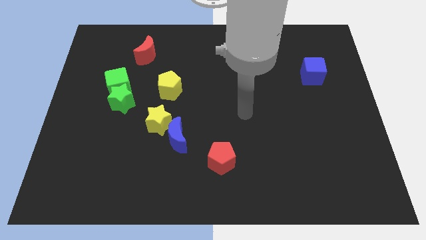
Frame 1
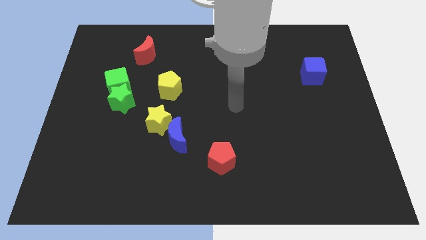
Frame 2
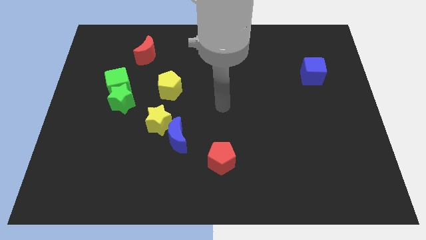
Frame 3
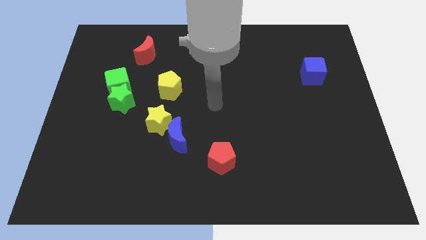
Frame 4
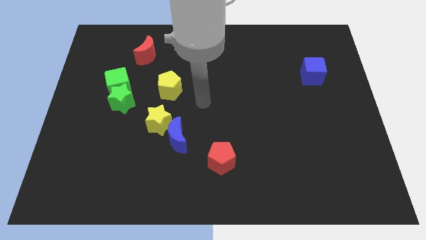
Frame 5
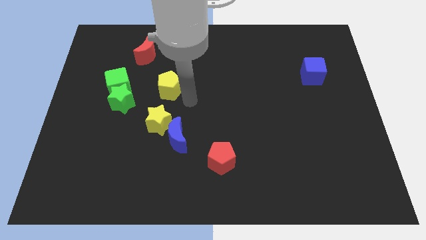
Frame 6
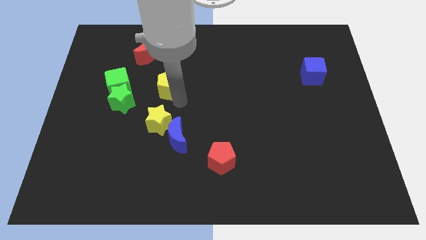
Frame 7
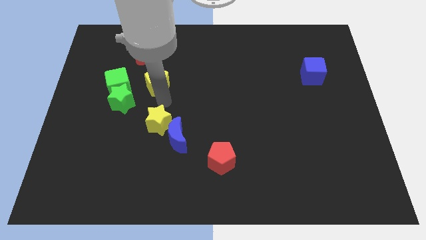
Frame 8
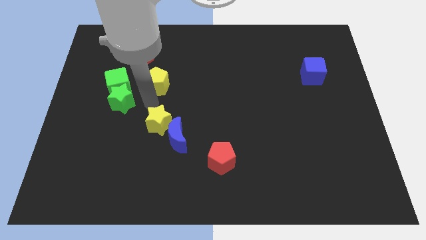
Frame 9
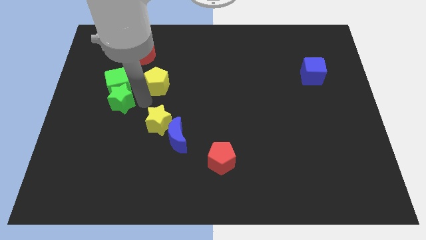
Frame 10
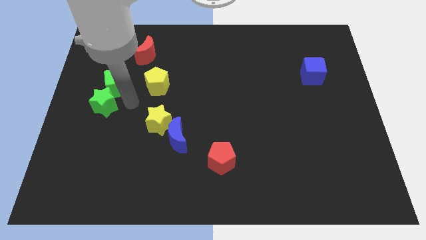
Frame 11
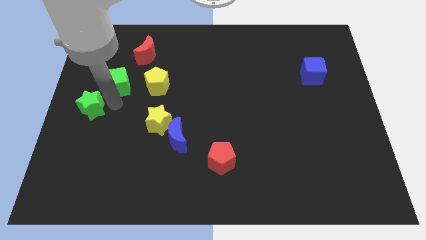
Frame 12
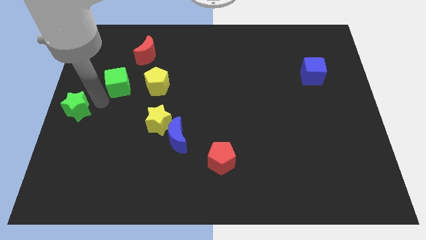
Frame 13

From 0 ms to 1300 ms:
pull the green cube apart from the green star

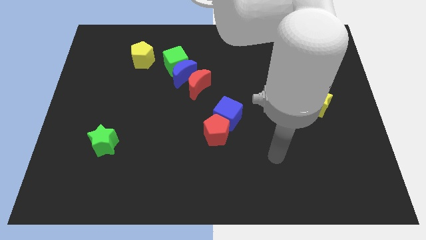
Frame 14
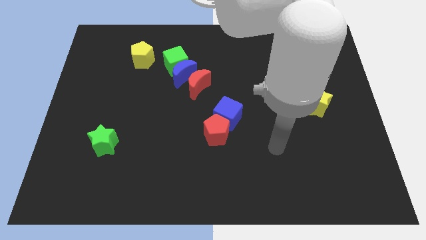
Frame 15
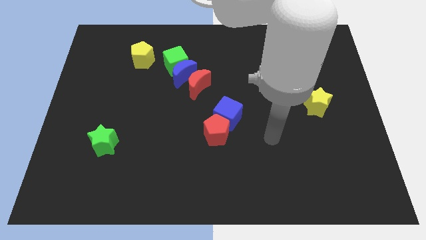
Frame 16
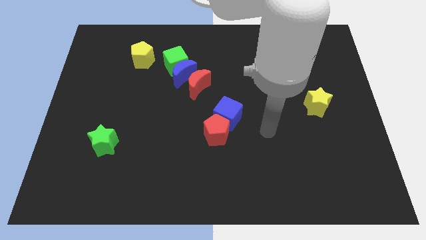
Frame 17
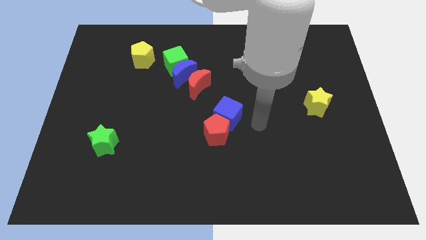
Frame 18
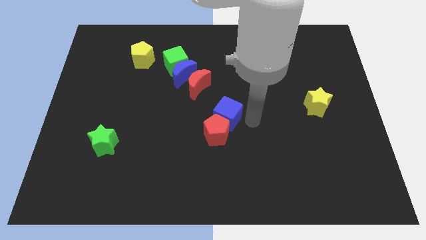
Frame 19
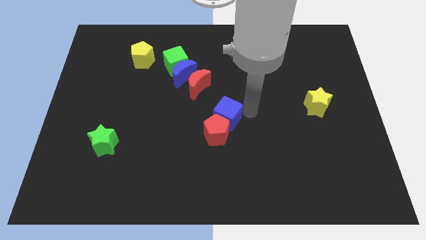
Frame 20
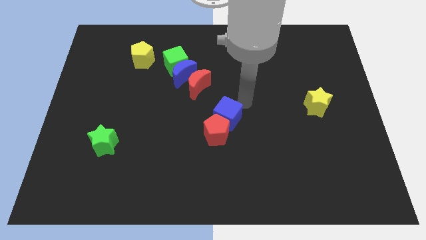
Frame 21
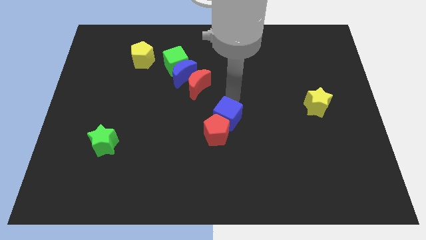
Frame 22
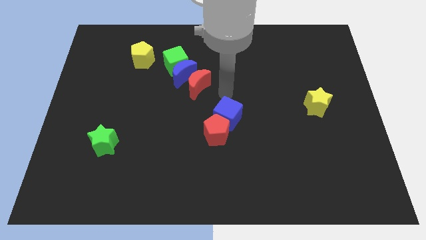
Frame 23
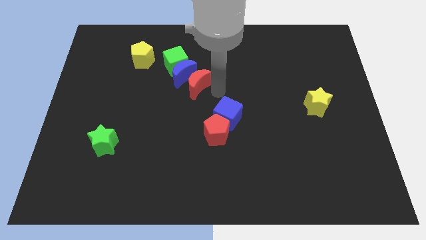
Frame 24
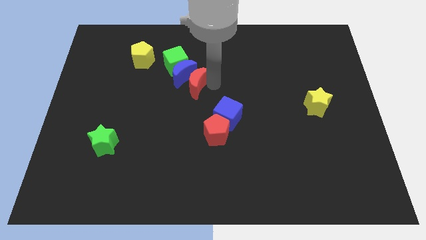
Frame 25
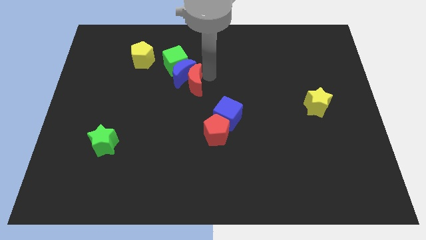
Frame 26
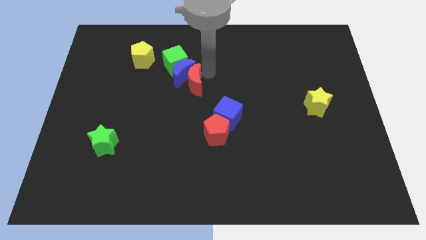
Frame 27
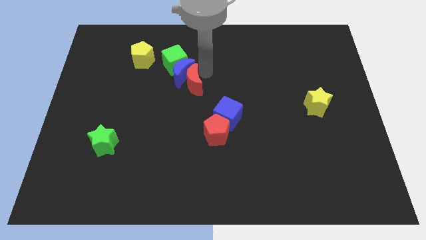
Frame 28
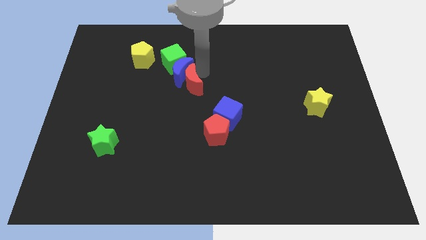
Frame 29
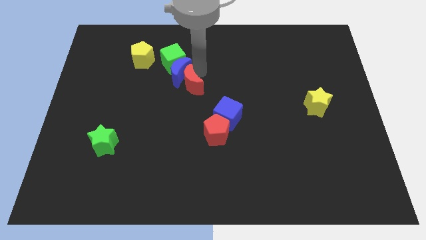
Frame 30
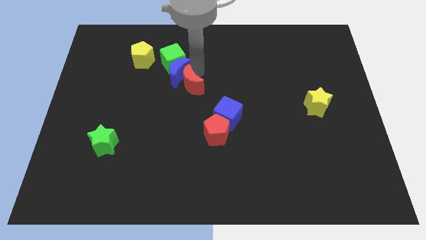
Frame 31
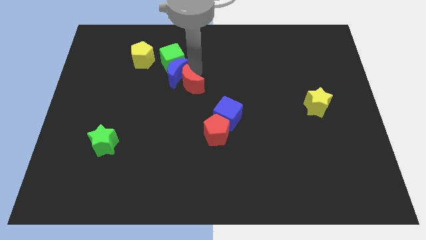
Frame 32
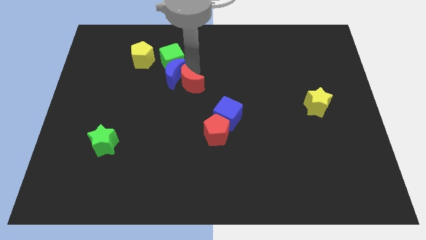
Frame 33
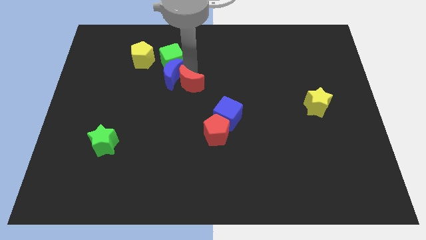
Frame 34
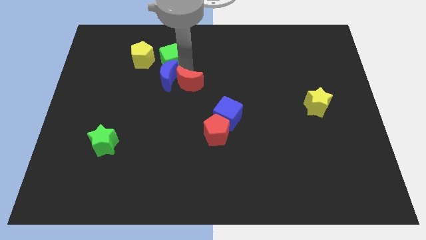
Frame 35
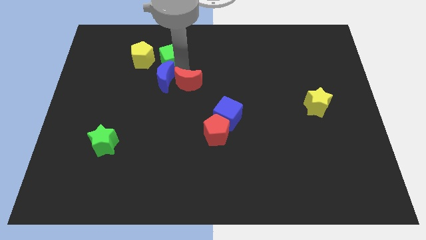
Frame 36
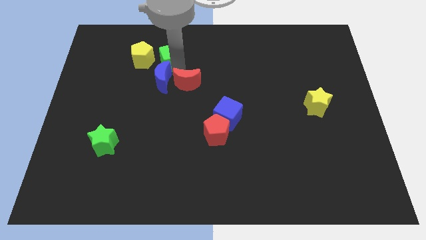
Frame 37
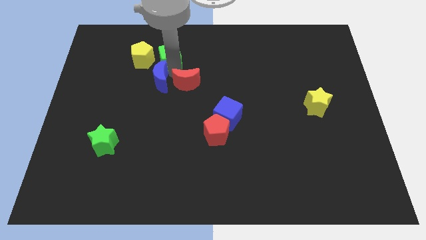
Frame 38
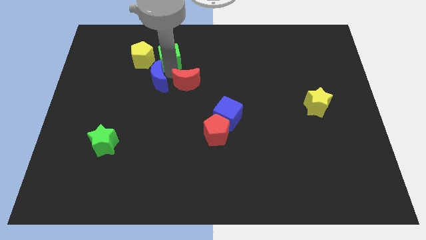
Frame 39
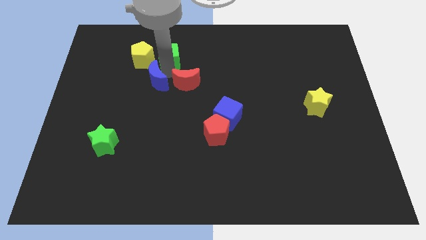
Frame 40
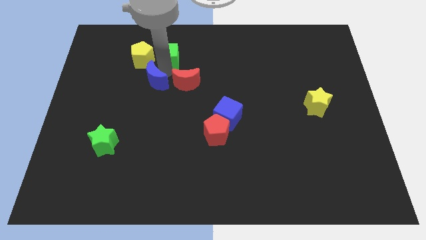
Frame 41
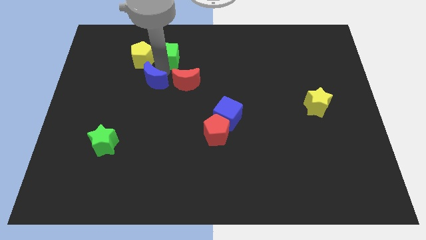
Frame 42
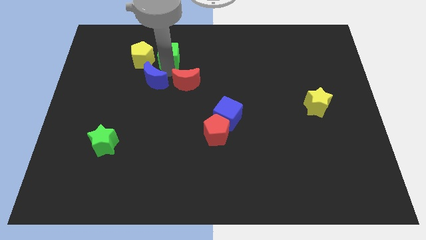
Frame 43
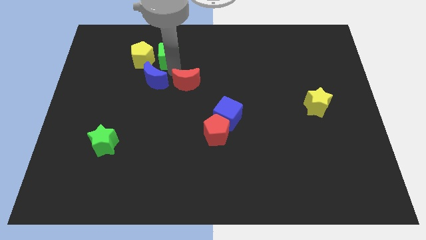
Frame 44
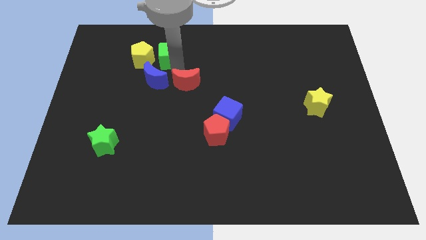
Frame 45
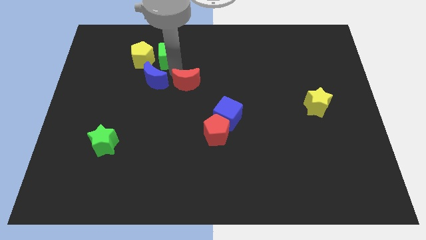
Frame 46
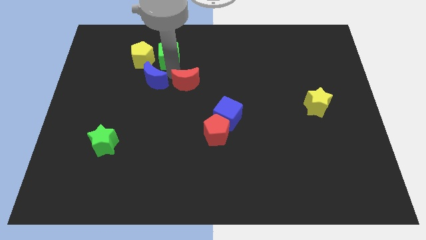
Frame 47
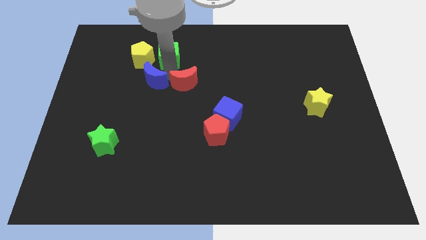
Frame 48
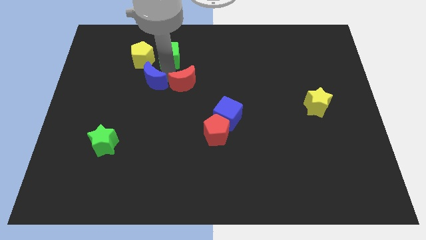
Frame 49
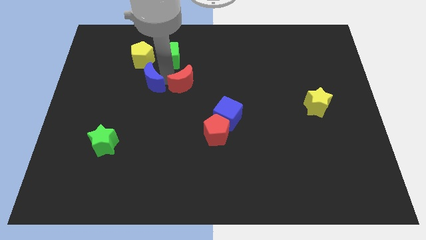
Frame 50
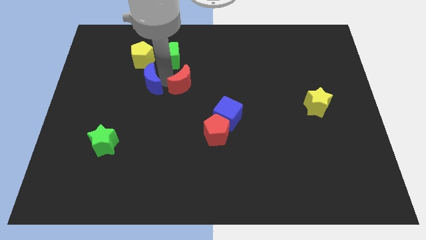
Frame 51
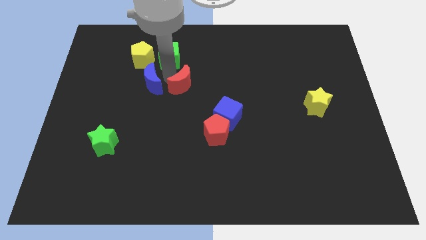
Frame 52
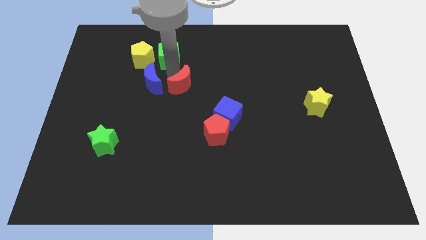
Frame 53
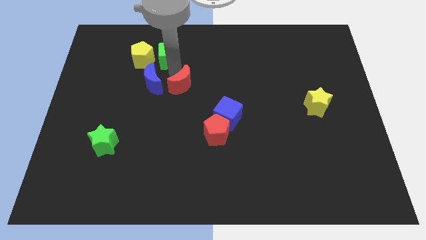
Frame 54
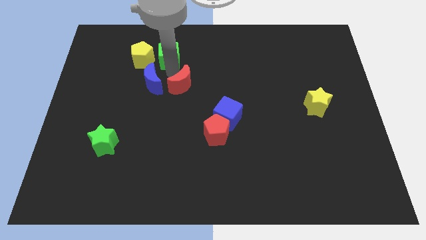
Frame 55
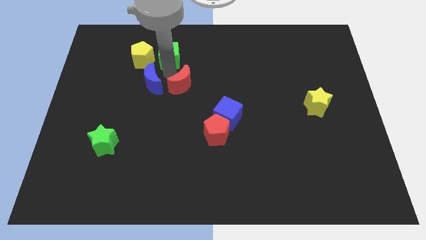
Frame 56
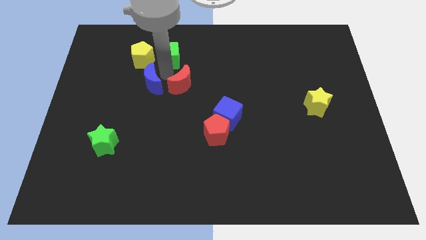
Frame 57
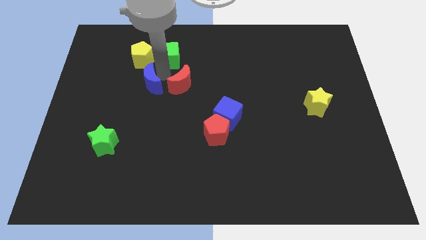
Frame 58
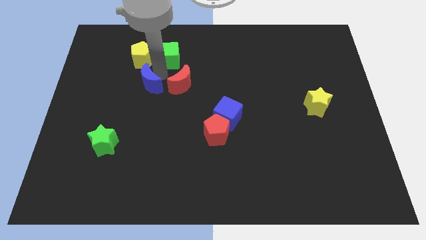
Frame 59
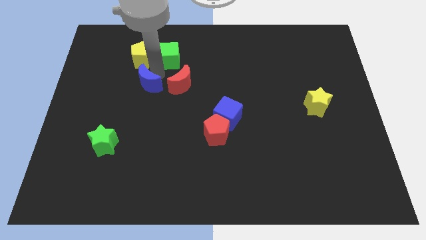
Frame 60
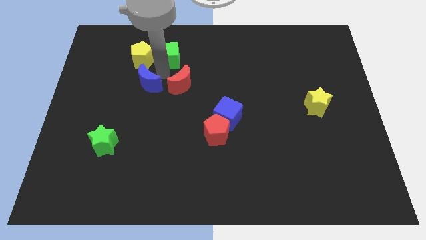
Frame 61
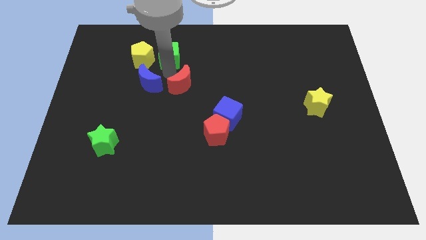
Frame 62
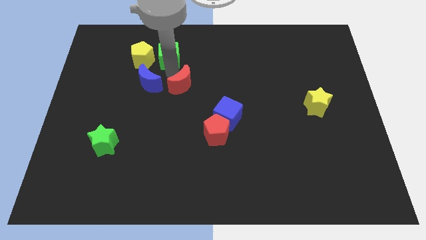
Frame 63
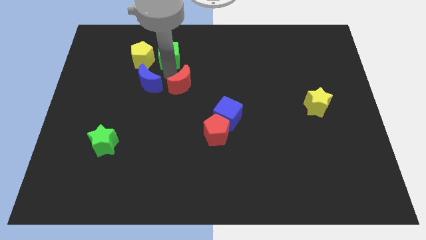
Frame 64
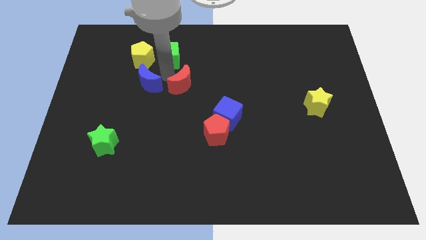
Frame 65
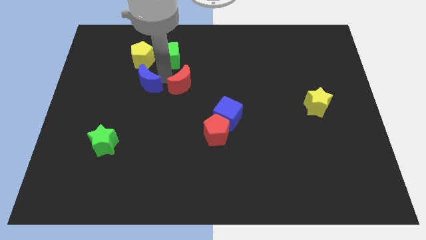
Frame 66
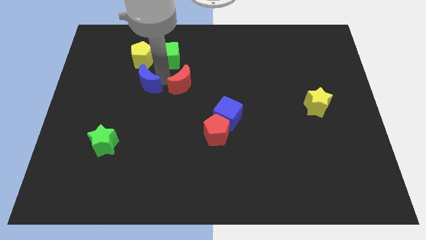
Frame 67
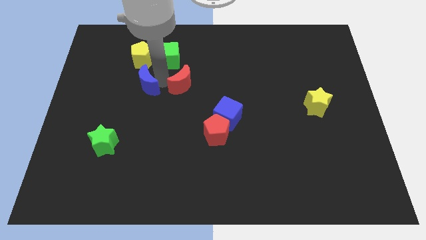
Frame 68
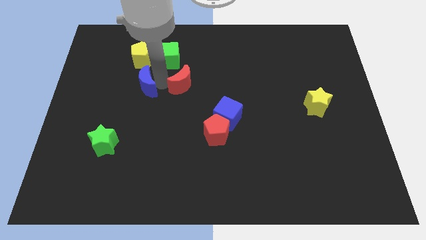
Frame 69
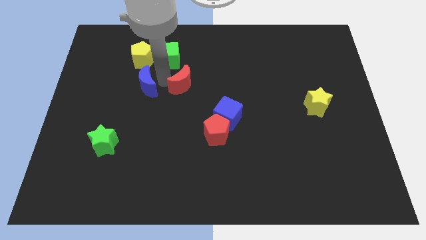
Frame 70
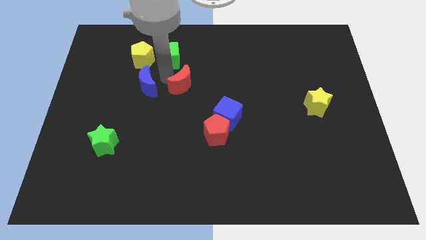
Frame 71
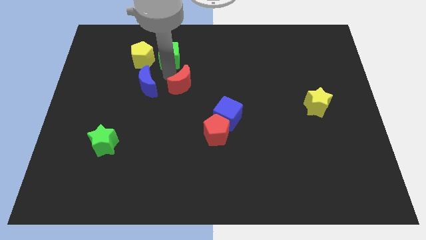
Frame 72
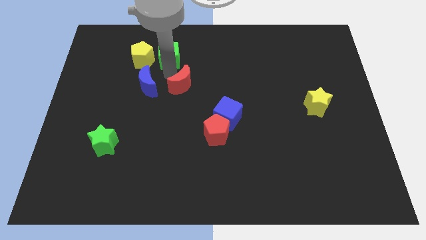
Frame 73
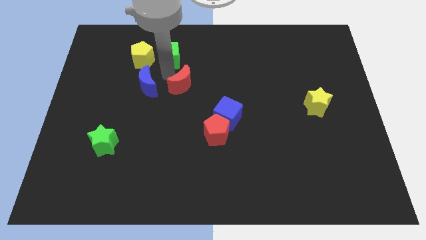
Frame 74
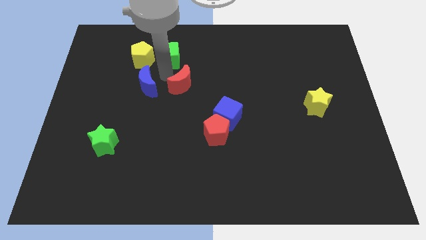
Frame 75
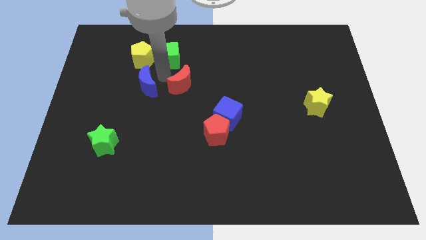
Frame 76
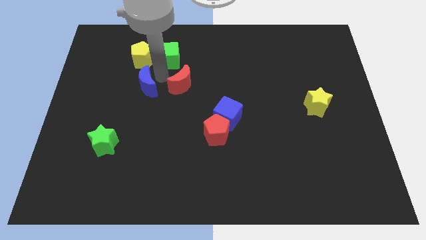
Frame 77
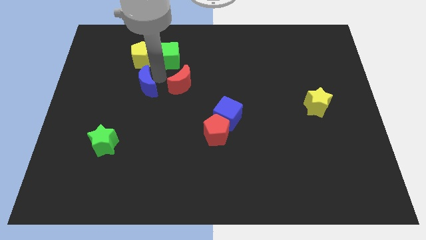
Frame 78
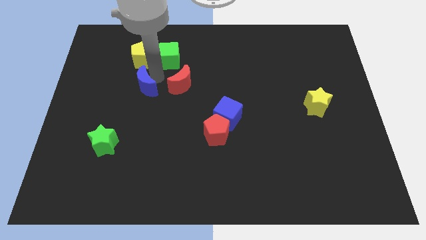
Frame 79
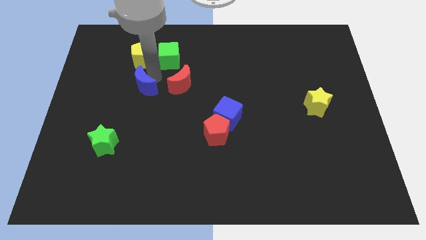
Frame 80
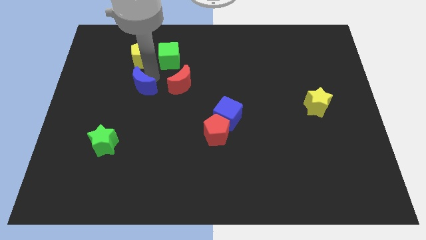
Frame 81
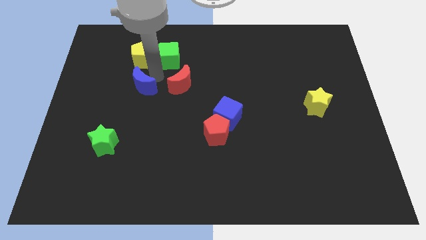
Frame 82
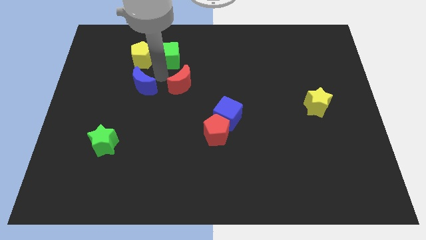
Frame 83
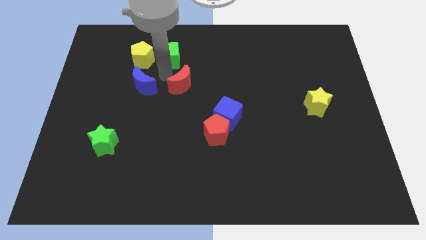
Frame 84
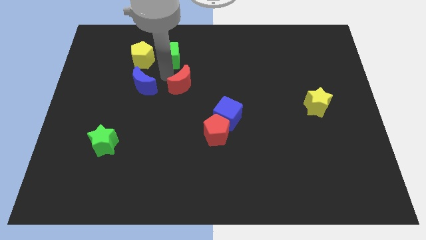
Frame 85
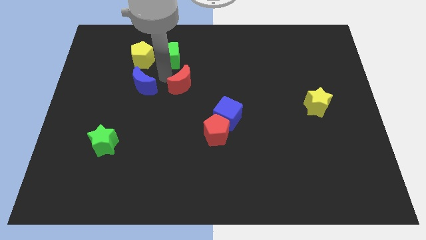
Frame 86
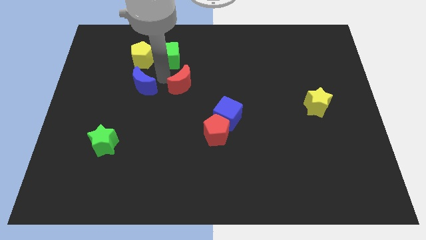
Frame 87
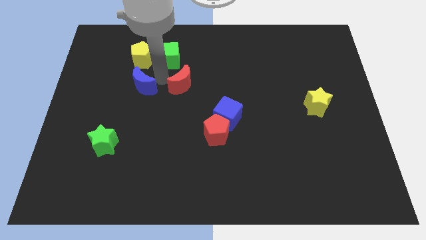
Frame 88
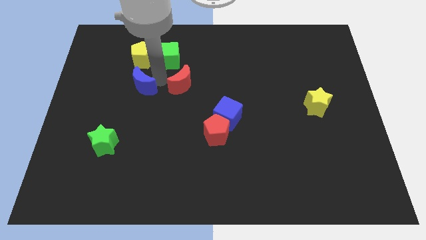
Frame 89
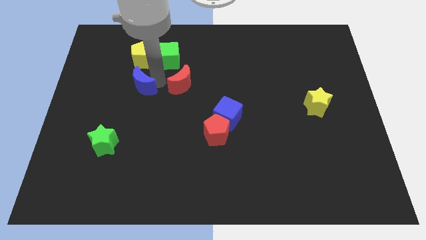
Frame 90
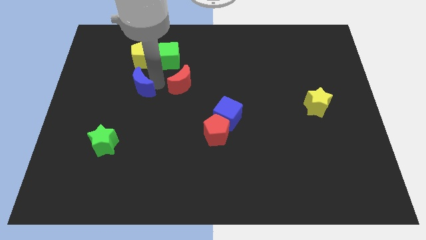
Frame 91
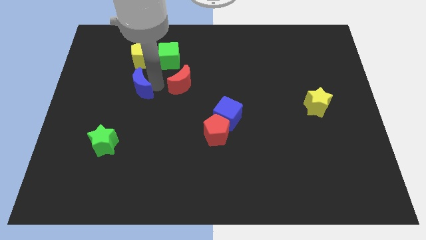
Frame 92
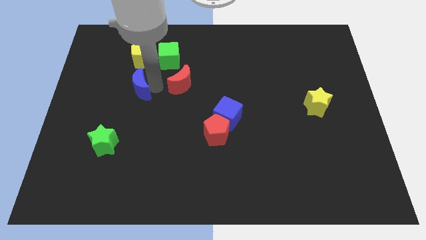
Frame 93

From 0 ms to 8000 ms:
pull the blue moon apart from the green cube and red moon
